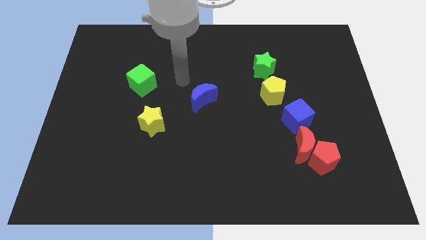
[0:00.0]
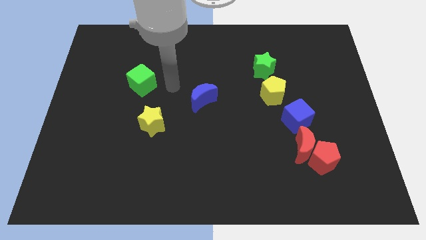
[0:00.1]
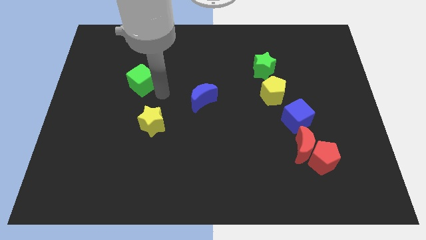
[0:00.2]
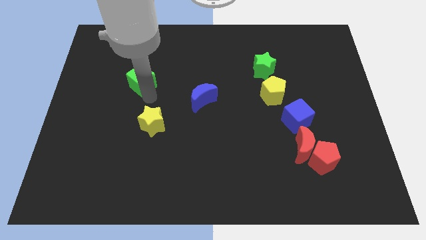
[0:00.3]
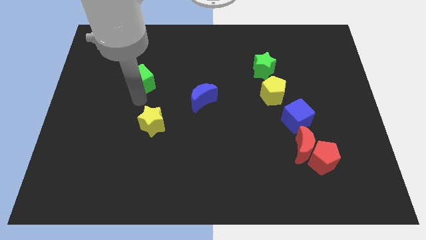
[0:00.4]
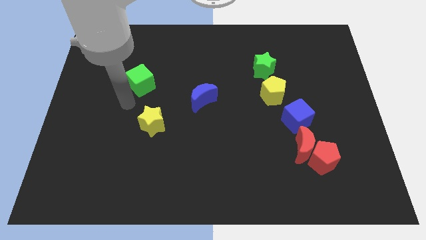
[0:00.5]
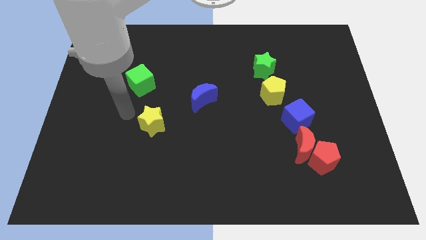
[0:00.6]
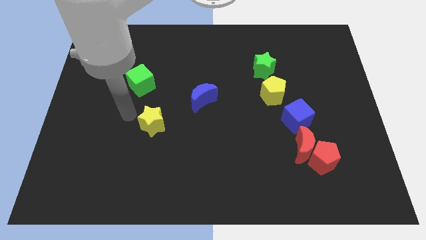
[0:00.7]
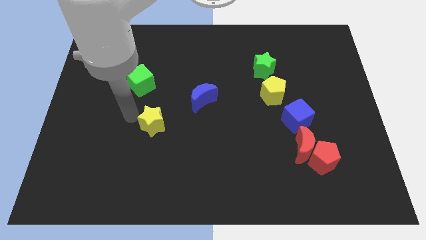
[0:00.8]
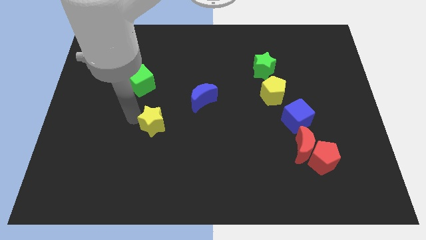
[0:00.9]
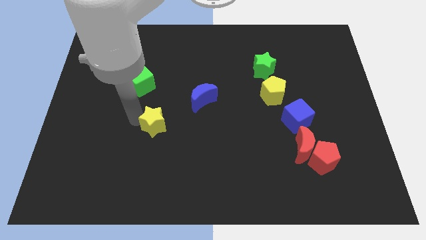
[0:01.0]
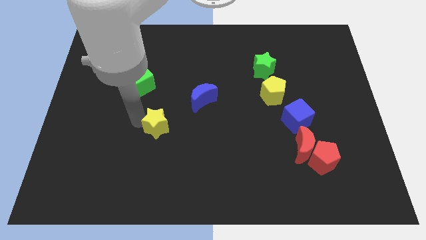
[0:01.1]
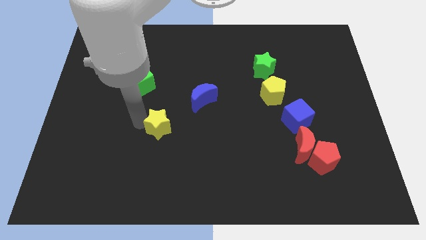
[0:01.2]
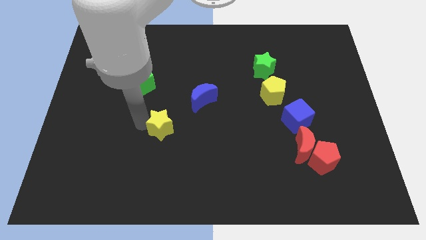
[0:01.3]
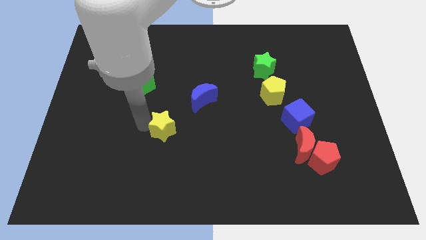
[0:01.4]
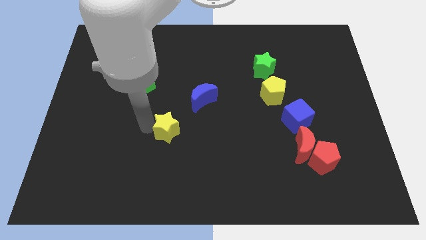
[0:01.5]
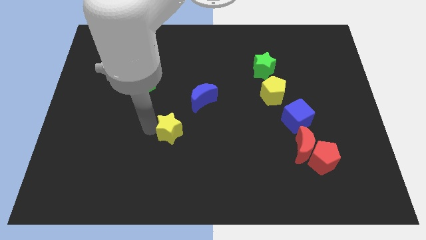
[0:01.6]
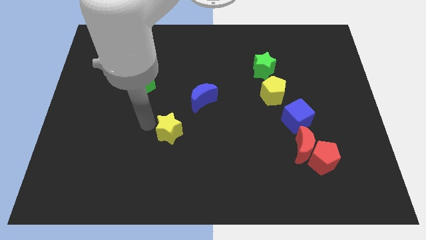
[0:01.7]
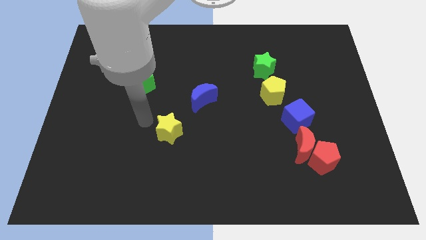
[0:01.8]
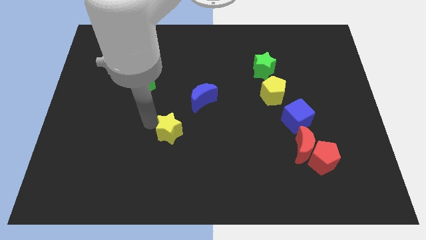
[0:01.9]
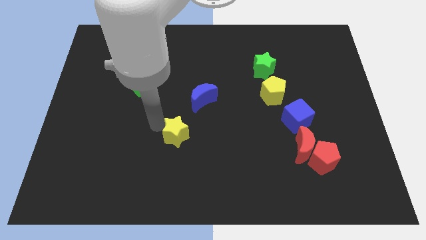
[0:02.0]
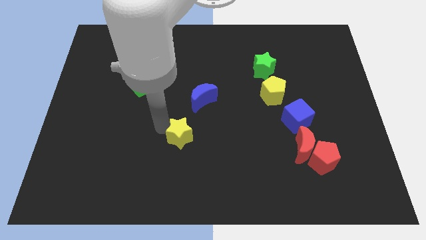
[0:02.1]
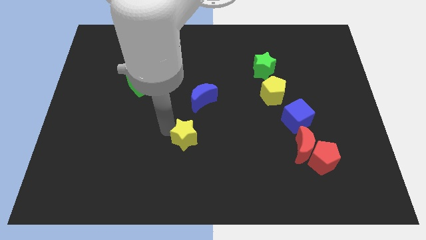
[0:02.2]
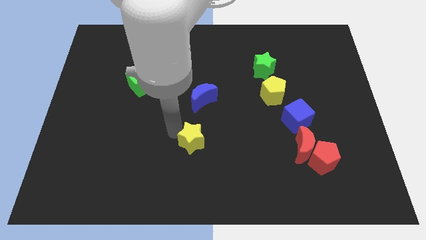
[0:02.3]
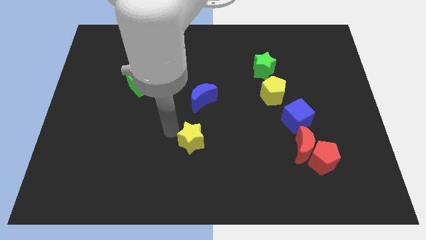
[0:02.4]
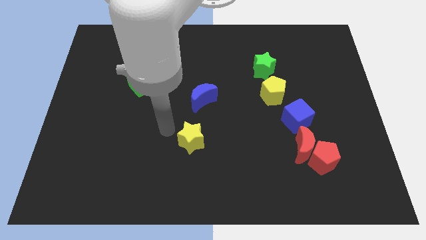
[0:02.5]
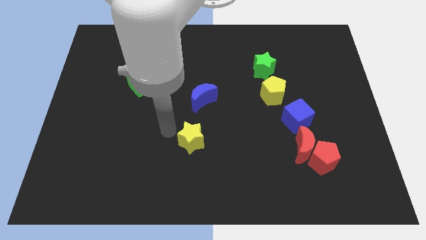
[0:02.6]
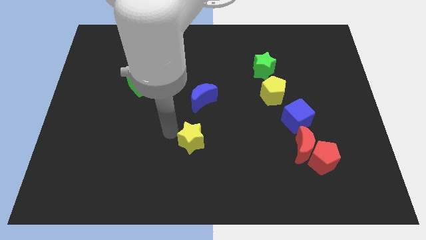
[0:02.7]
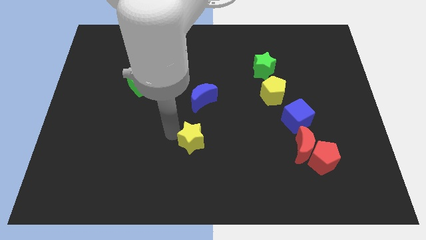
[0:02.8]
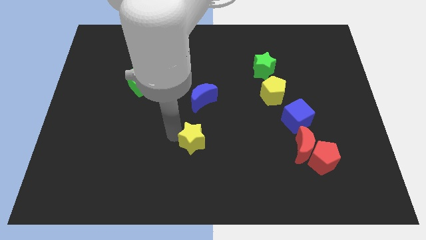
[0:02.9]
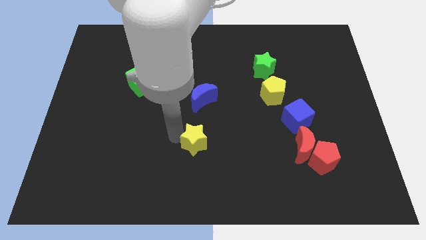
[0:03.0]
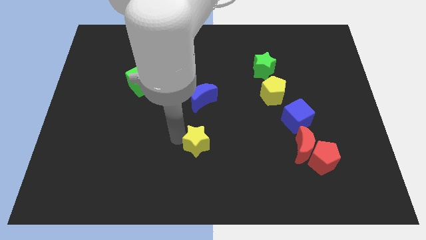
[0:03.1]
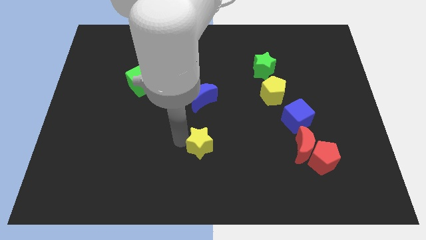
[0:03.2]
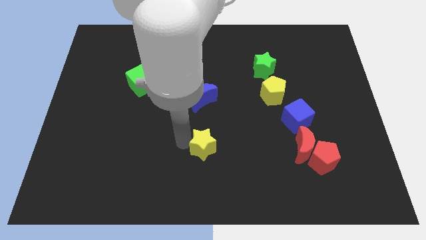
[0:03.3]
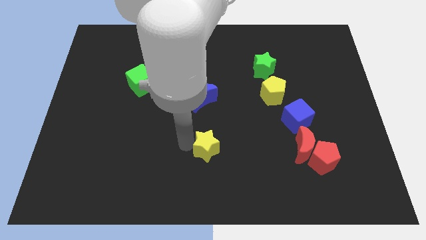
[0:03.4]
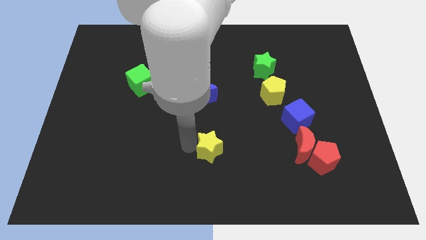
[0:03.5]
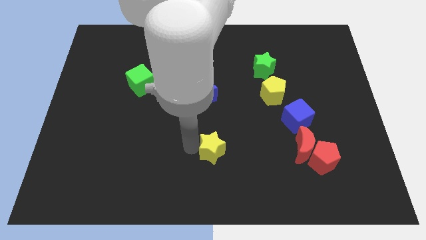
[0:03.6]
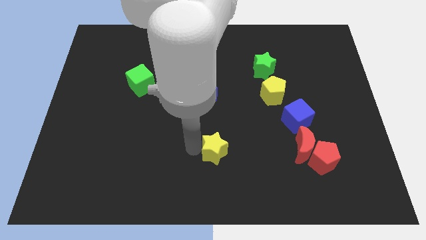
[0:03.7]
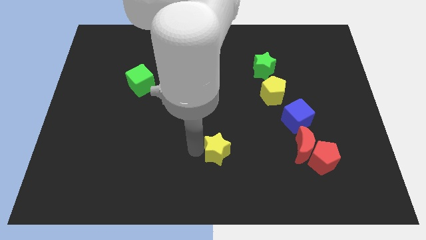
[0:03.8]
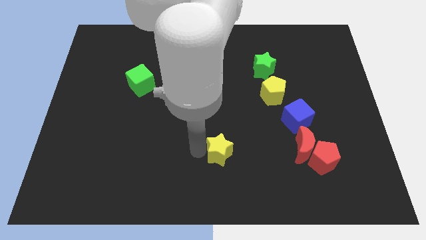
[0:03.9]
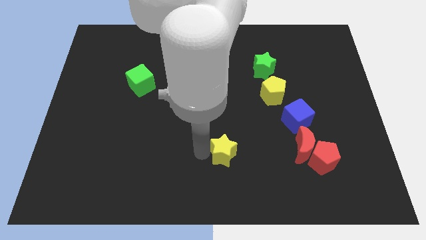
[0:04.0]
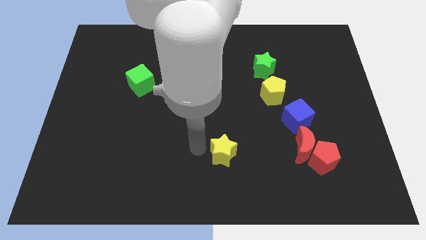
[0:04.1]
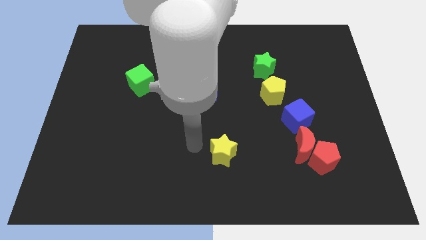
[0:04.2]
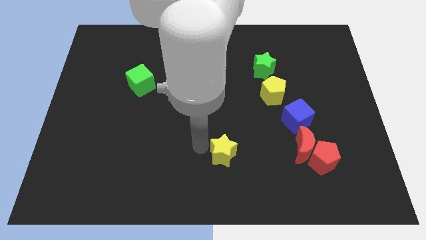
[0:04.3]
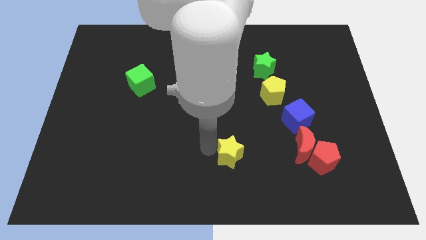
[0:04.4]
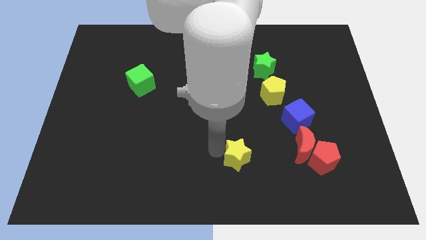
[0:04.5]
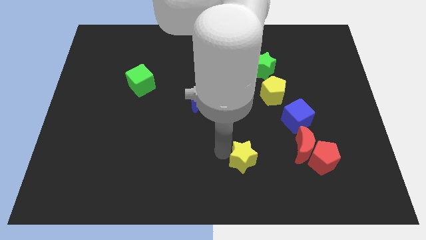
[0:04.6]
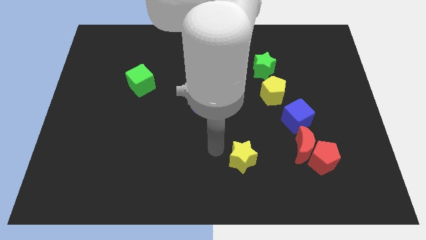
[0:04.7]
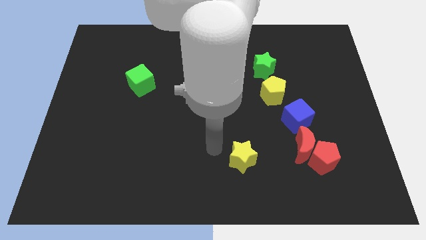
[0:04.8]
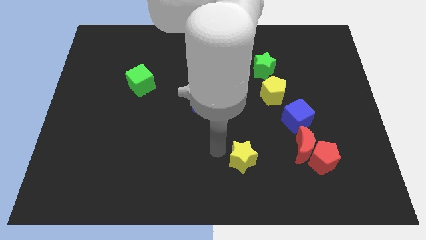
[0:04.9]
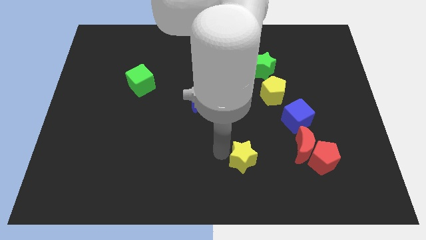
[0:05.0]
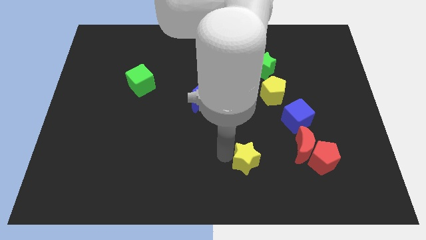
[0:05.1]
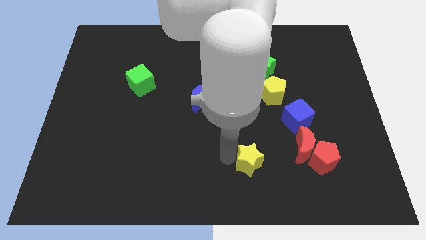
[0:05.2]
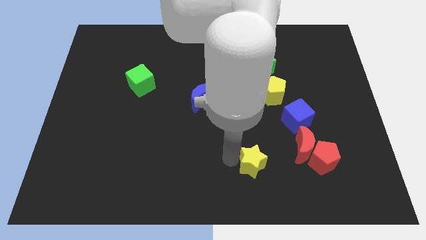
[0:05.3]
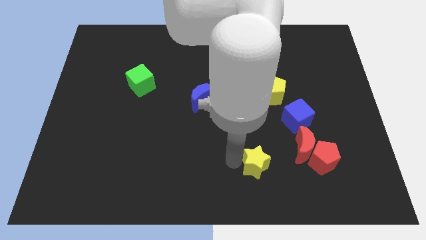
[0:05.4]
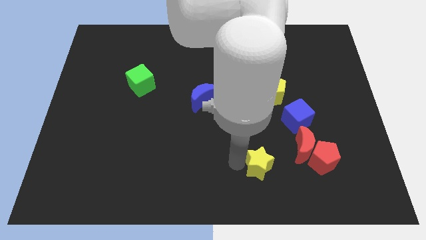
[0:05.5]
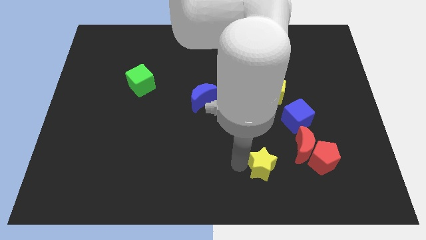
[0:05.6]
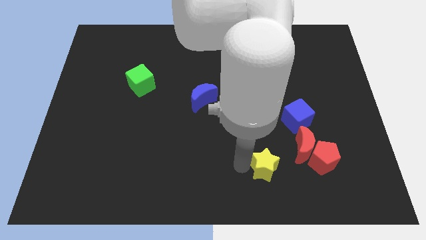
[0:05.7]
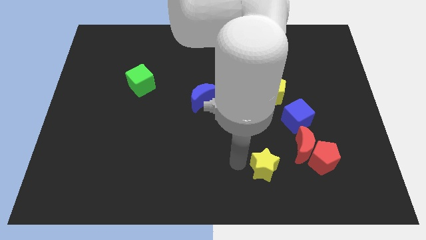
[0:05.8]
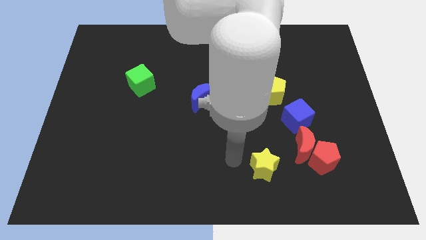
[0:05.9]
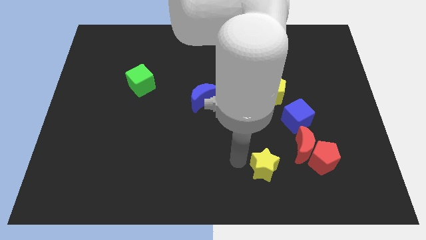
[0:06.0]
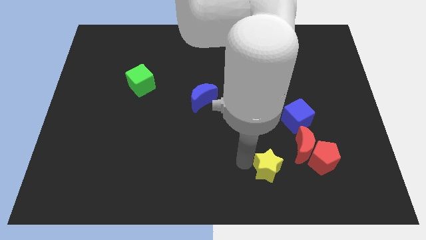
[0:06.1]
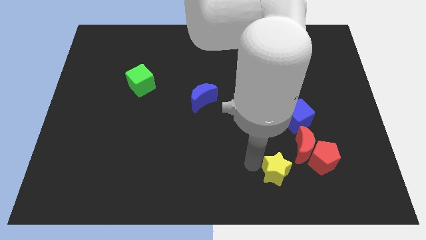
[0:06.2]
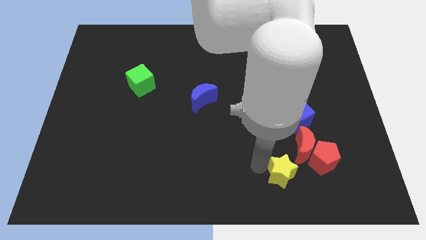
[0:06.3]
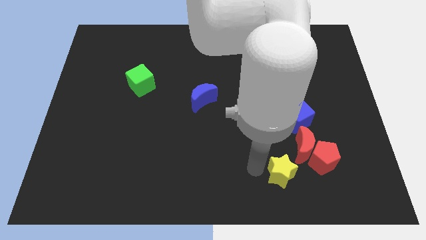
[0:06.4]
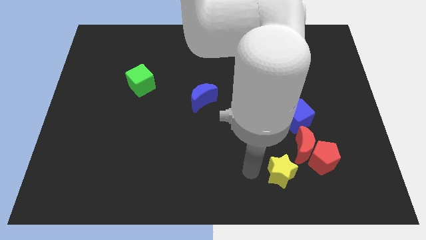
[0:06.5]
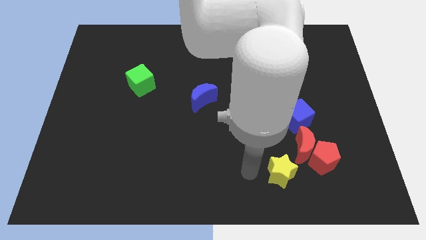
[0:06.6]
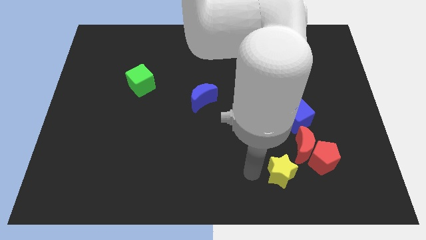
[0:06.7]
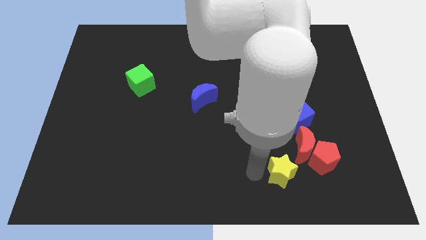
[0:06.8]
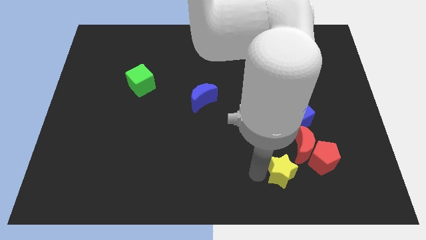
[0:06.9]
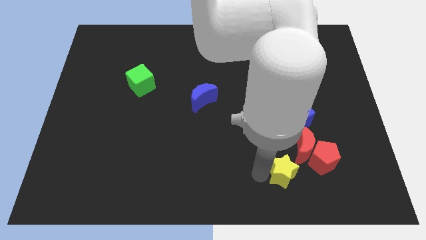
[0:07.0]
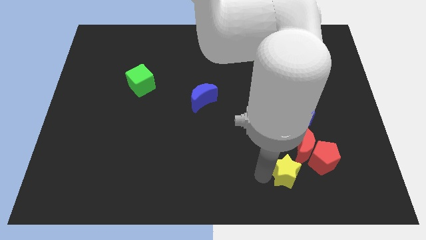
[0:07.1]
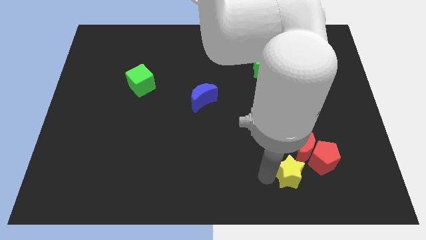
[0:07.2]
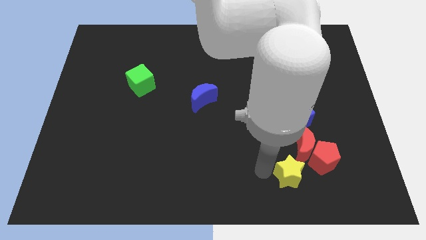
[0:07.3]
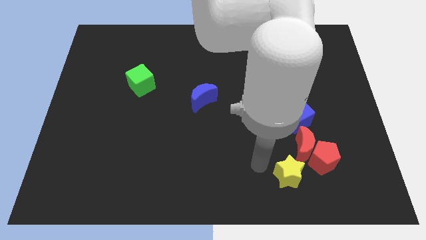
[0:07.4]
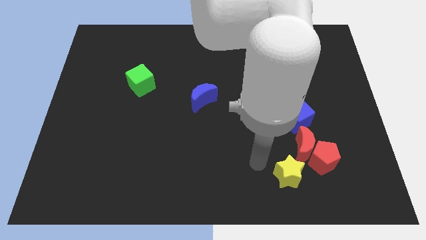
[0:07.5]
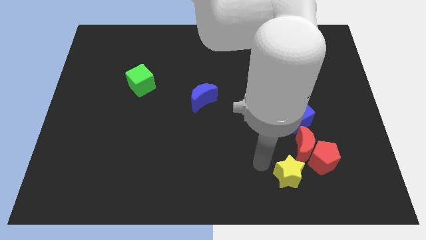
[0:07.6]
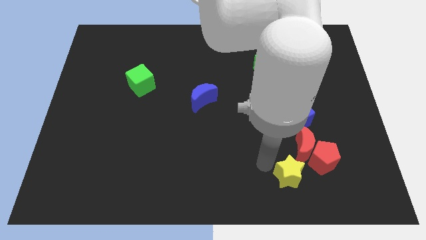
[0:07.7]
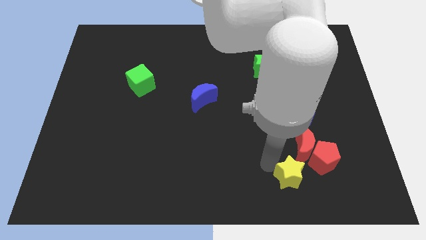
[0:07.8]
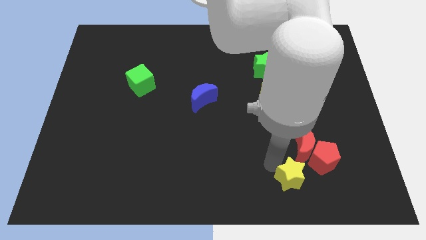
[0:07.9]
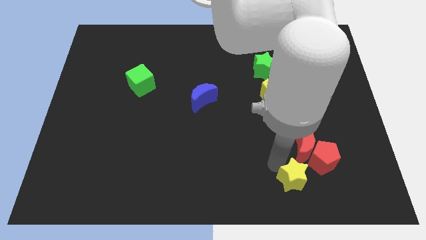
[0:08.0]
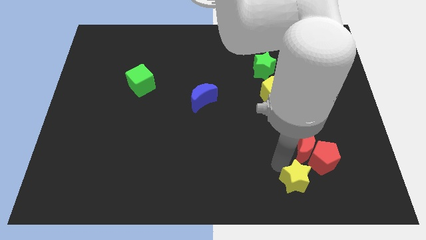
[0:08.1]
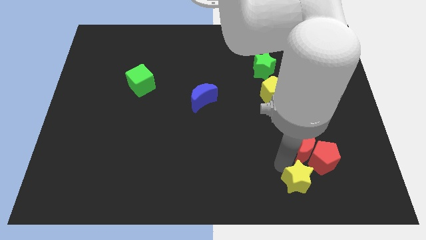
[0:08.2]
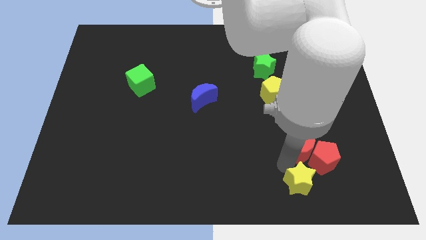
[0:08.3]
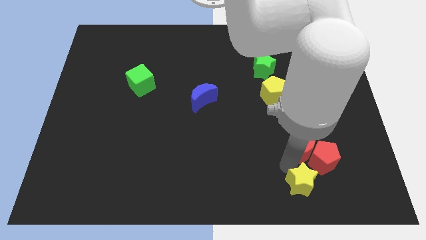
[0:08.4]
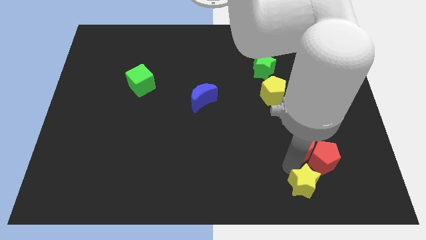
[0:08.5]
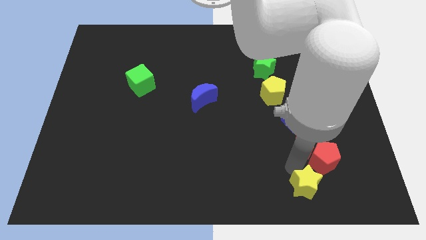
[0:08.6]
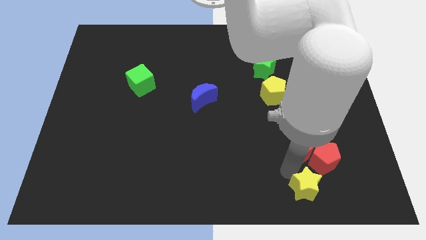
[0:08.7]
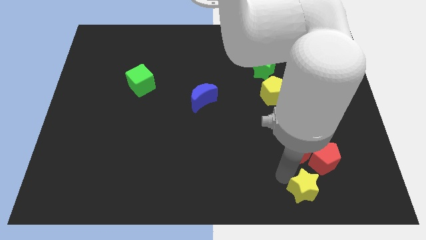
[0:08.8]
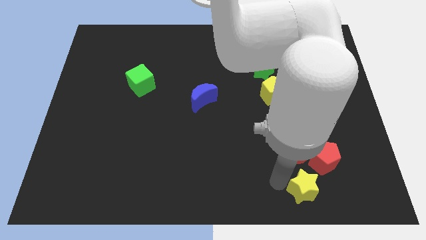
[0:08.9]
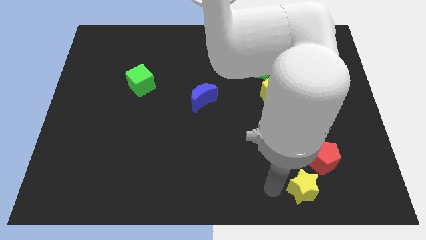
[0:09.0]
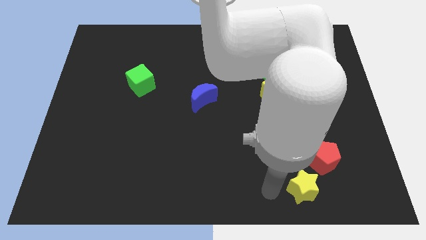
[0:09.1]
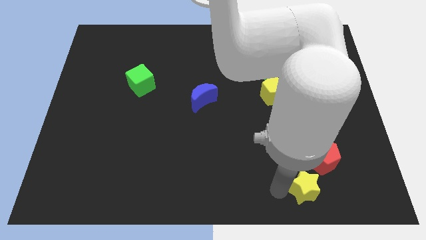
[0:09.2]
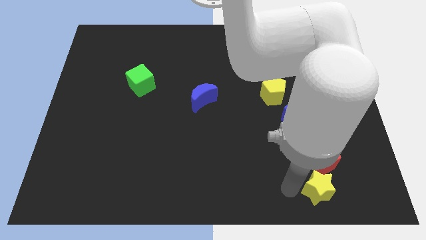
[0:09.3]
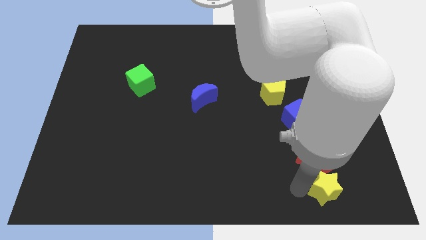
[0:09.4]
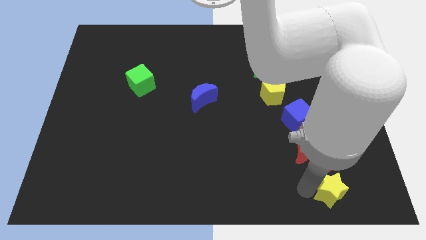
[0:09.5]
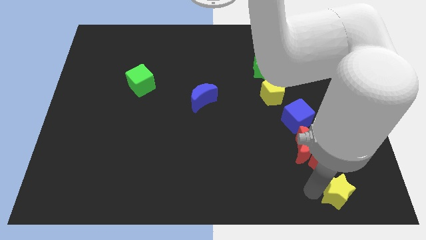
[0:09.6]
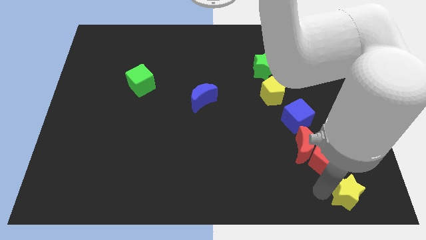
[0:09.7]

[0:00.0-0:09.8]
put the yellow star to the bottom right of the board
